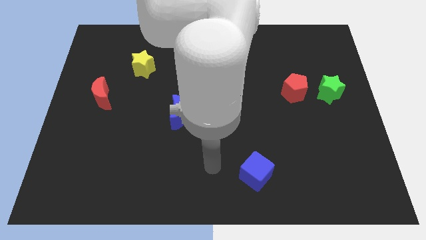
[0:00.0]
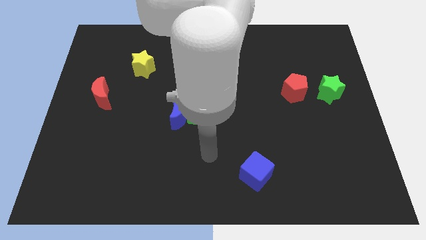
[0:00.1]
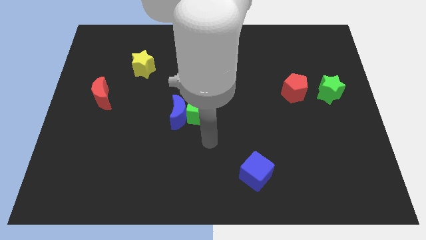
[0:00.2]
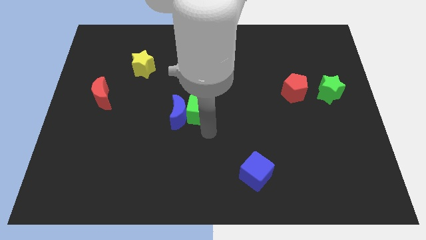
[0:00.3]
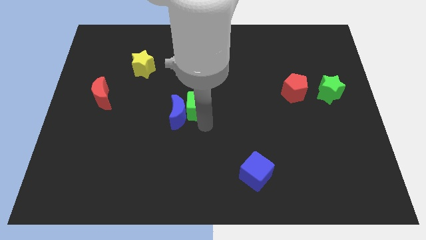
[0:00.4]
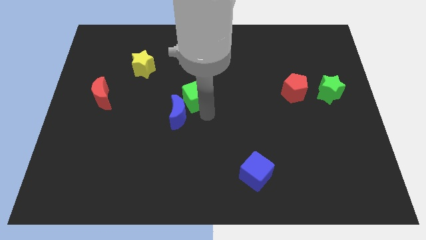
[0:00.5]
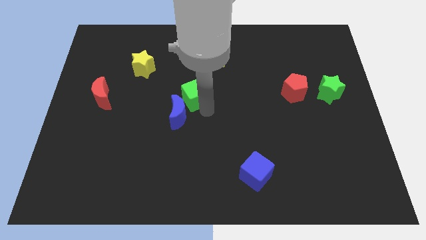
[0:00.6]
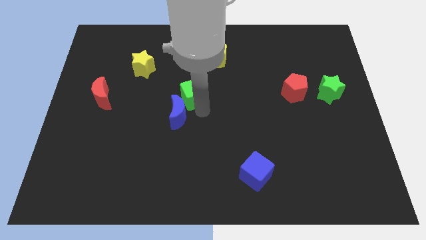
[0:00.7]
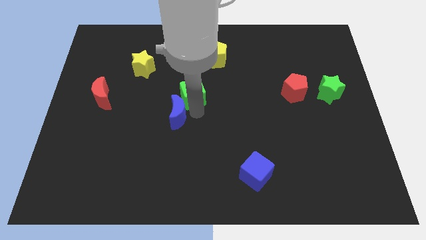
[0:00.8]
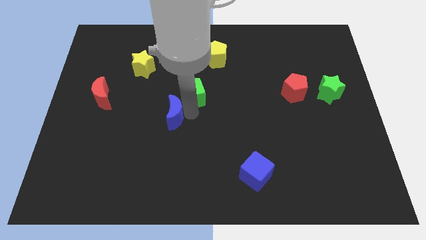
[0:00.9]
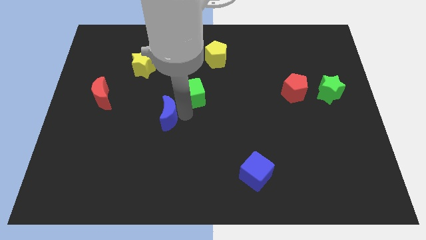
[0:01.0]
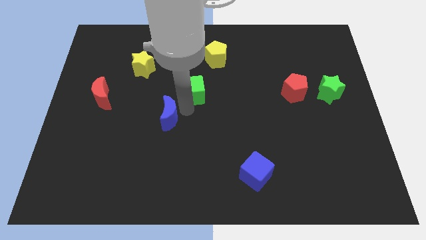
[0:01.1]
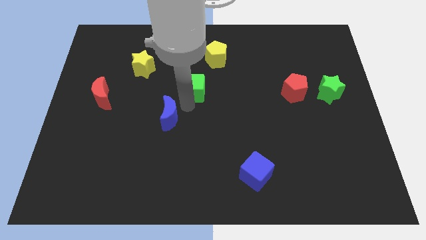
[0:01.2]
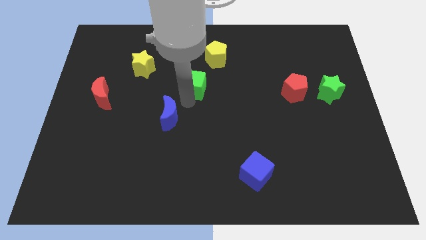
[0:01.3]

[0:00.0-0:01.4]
move the blue moon away from the green cube

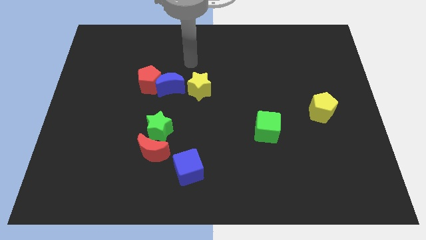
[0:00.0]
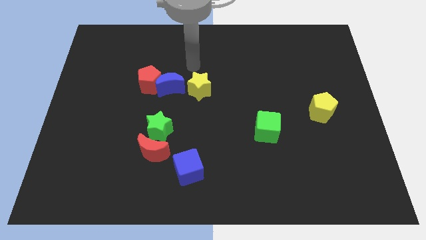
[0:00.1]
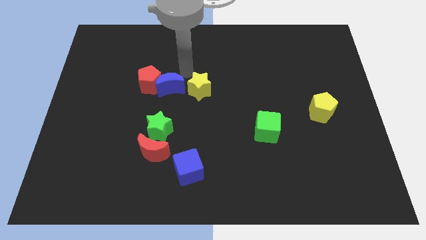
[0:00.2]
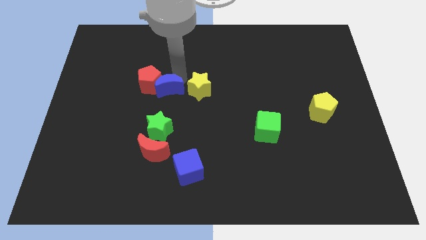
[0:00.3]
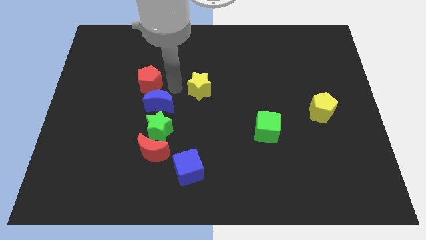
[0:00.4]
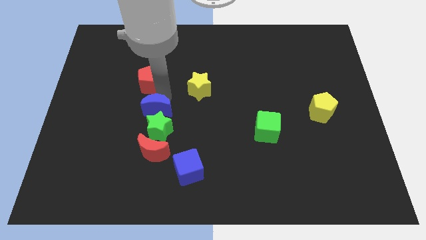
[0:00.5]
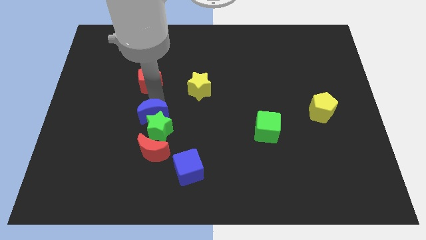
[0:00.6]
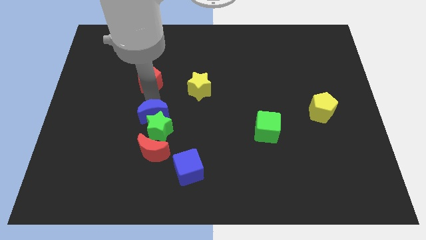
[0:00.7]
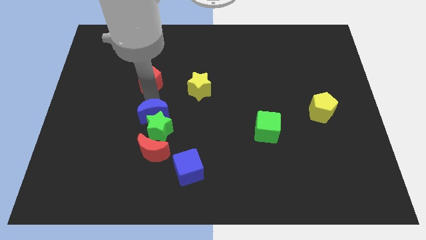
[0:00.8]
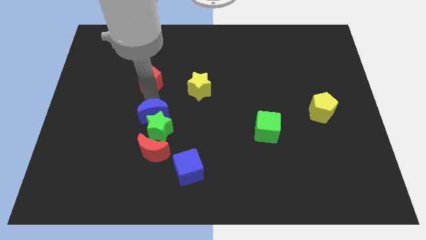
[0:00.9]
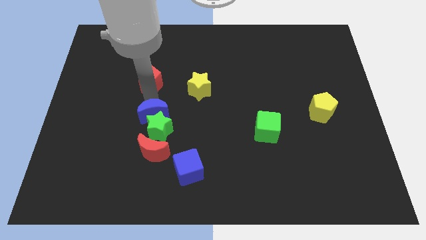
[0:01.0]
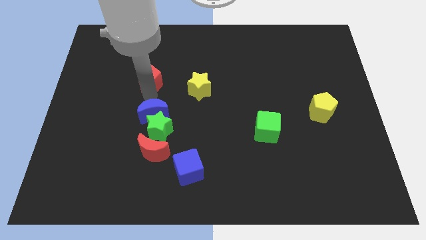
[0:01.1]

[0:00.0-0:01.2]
move the red pentagon away from the blue moon

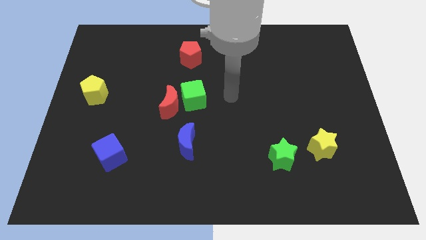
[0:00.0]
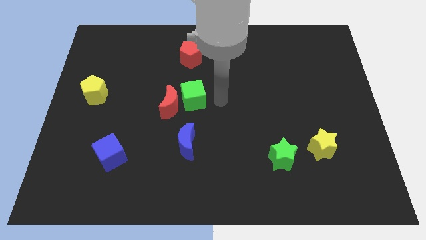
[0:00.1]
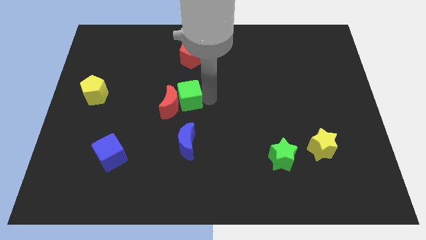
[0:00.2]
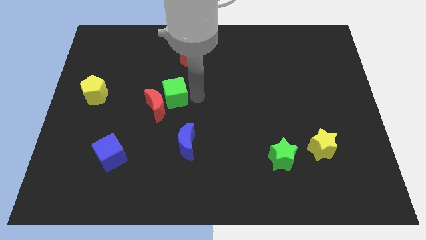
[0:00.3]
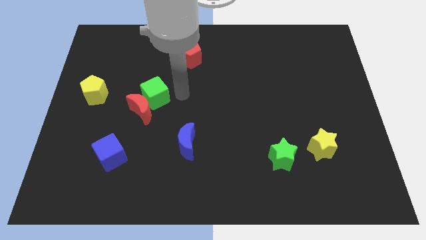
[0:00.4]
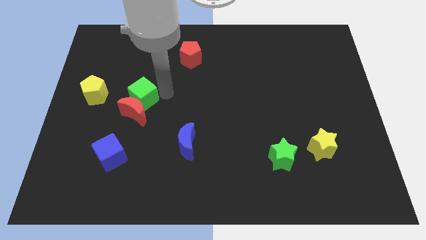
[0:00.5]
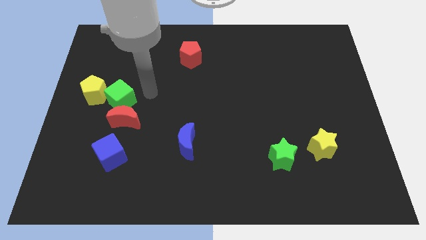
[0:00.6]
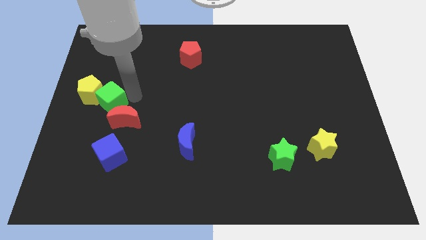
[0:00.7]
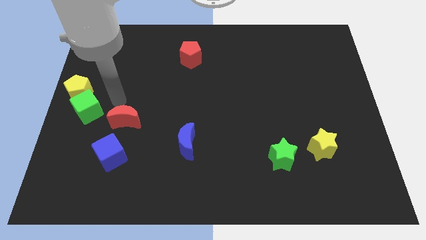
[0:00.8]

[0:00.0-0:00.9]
move the red moon away from the green cube

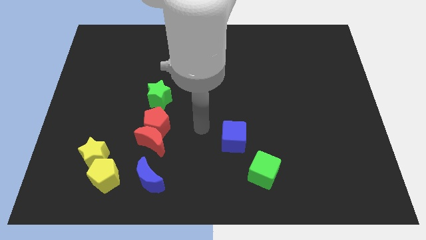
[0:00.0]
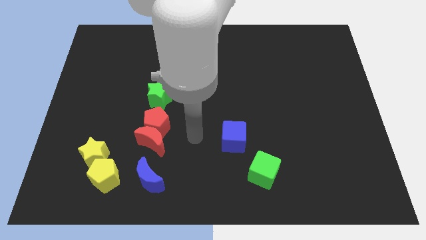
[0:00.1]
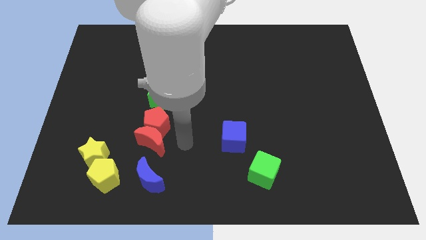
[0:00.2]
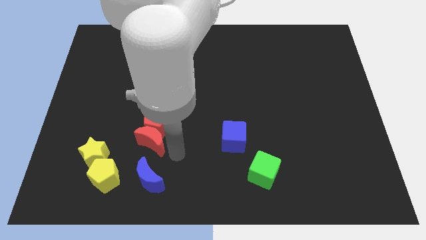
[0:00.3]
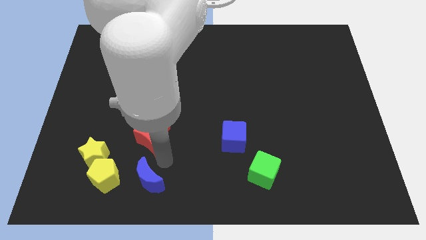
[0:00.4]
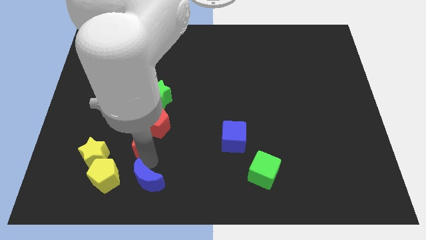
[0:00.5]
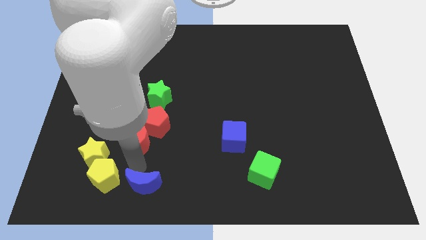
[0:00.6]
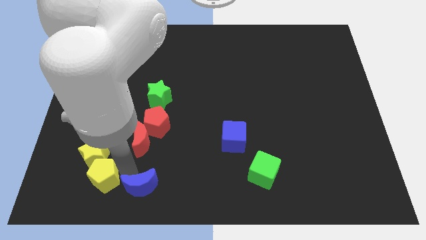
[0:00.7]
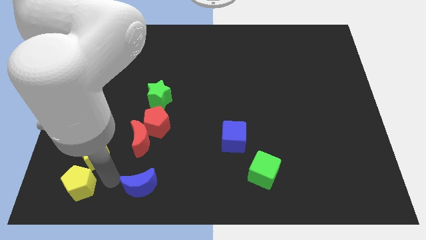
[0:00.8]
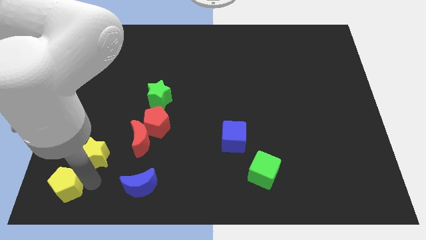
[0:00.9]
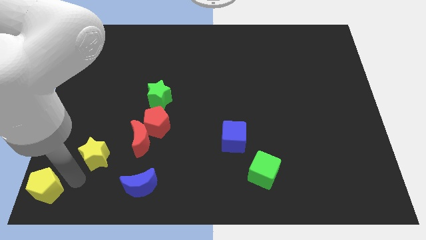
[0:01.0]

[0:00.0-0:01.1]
pull the yellow star apart from the yellow pentagon

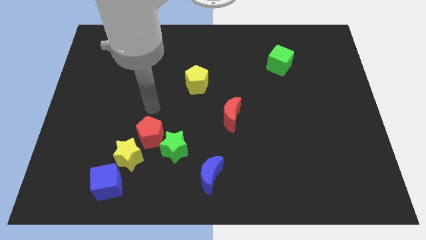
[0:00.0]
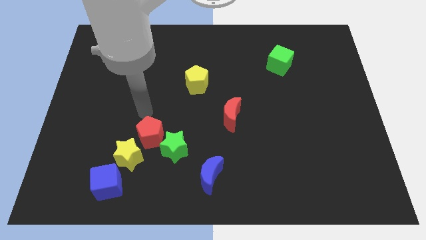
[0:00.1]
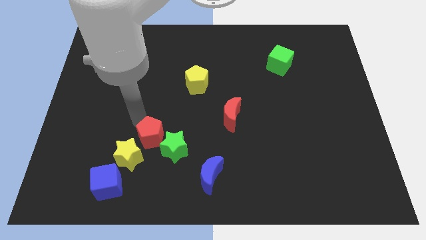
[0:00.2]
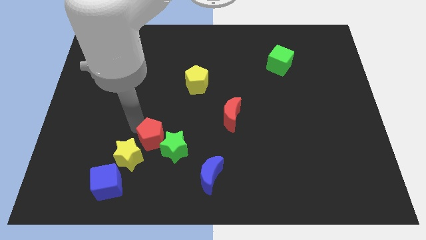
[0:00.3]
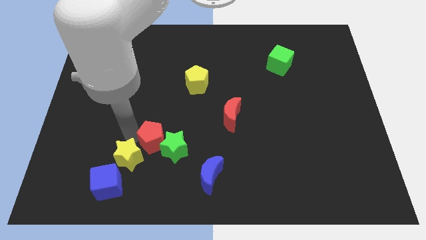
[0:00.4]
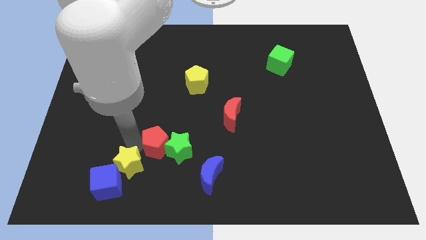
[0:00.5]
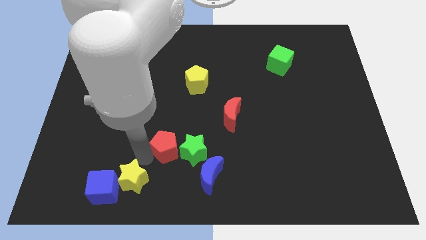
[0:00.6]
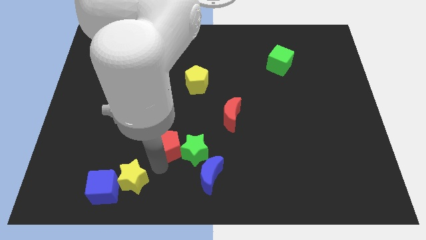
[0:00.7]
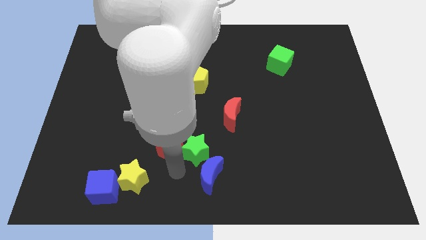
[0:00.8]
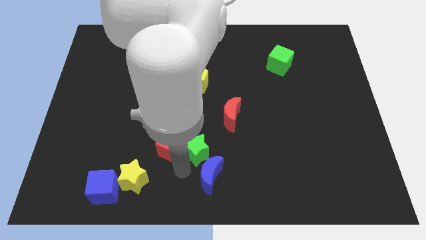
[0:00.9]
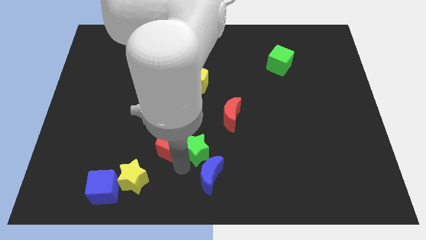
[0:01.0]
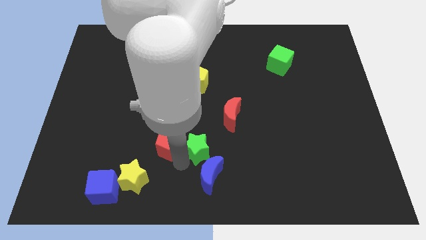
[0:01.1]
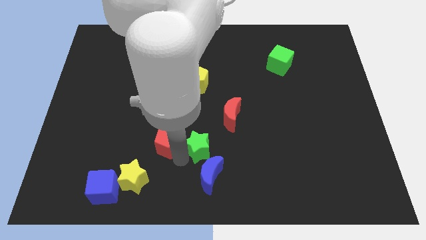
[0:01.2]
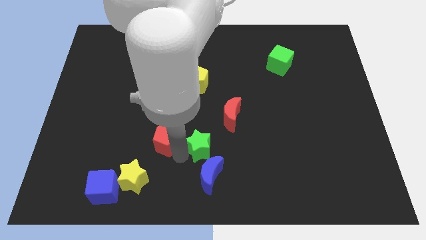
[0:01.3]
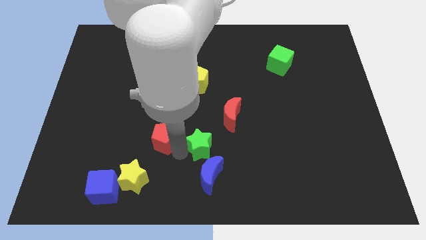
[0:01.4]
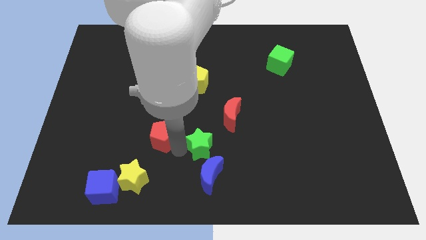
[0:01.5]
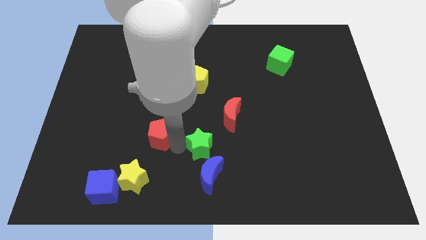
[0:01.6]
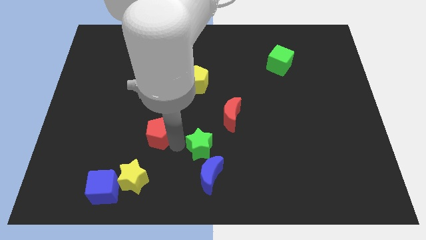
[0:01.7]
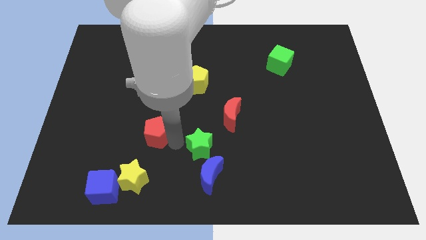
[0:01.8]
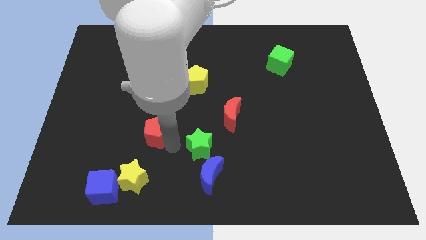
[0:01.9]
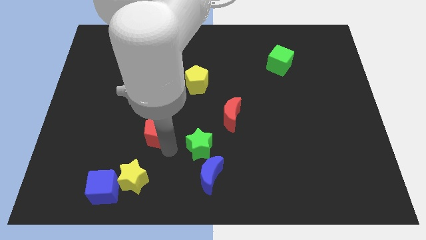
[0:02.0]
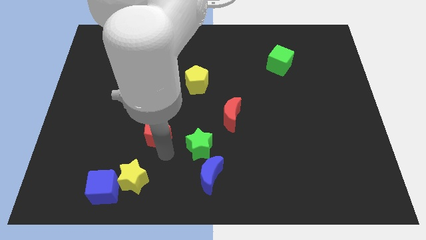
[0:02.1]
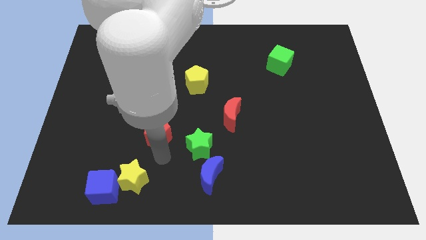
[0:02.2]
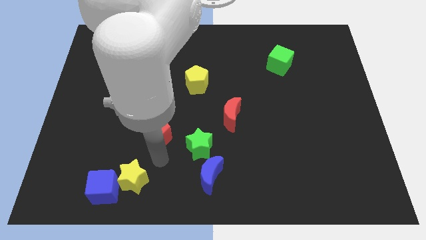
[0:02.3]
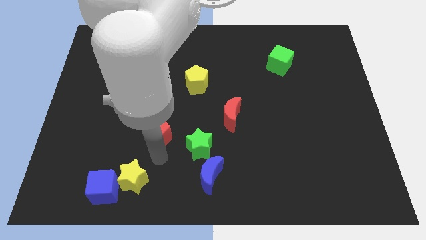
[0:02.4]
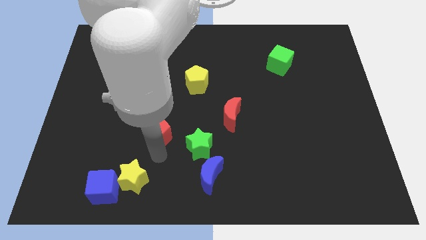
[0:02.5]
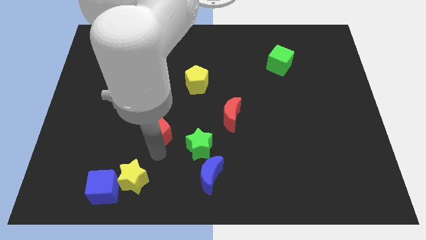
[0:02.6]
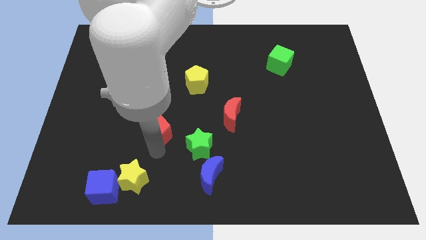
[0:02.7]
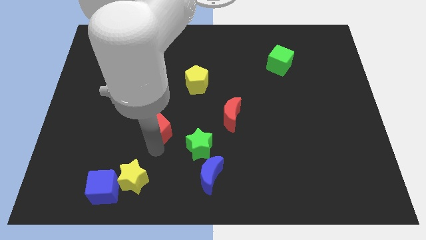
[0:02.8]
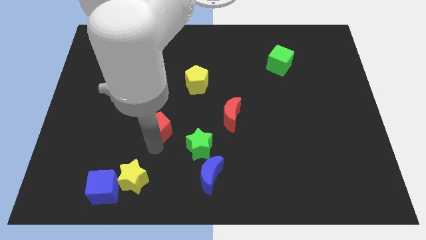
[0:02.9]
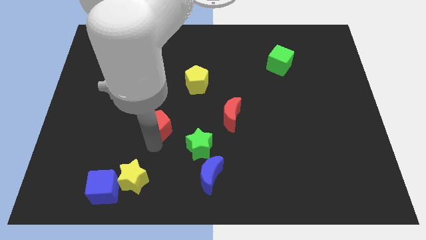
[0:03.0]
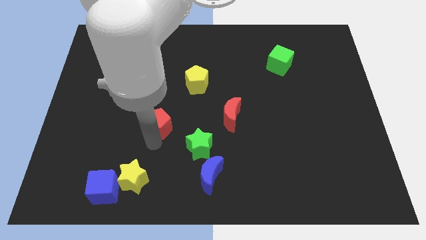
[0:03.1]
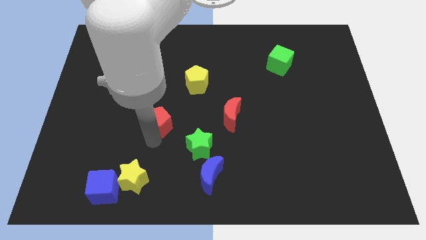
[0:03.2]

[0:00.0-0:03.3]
move the red pentagon away from the green star and yellow star

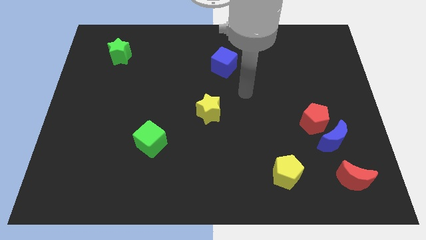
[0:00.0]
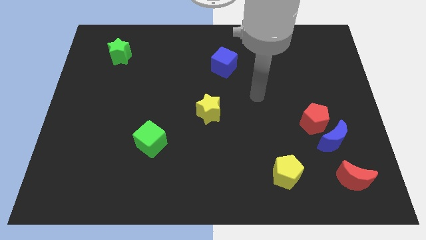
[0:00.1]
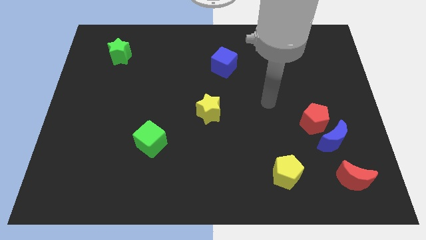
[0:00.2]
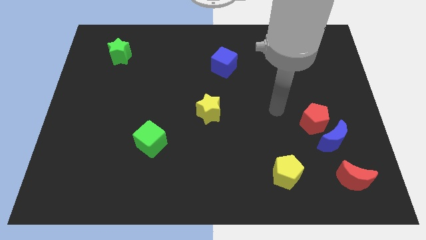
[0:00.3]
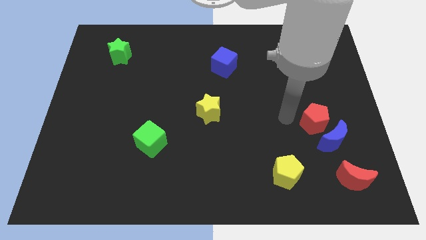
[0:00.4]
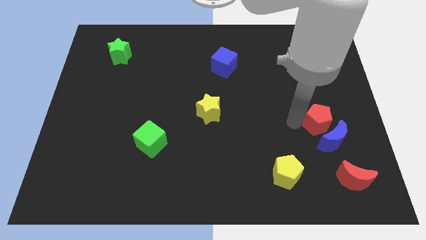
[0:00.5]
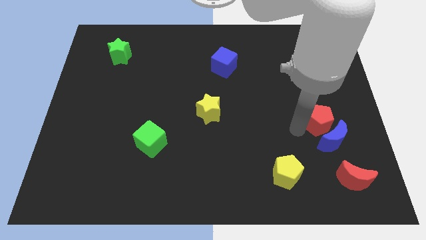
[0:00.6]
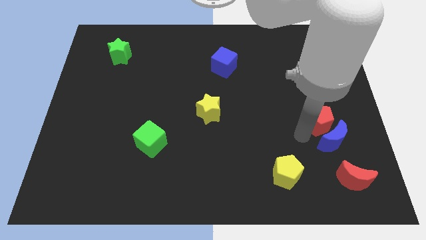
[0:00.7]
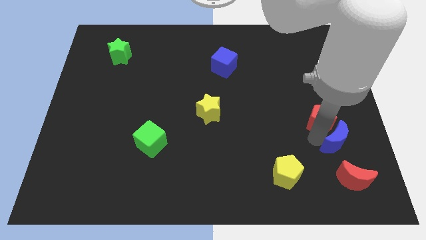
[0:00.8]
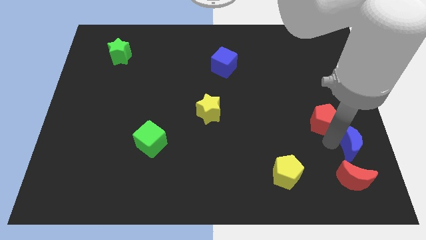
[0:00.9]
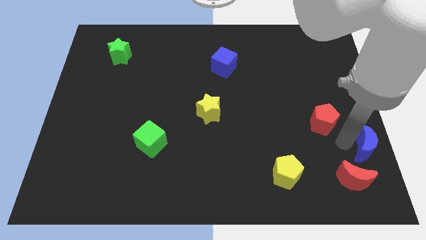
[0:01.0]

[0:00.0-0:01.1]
pull the red pentagon apart from the blue moon

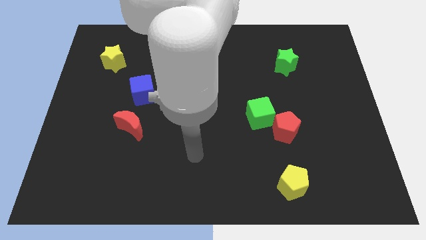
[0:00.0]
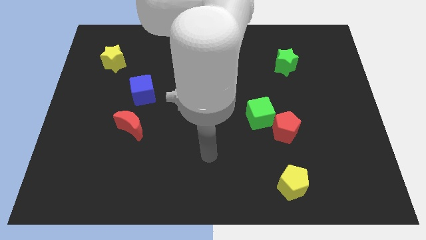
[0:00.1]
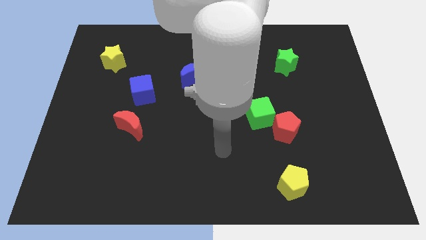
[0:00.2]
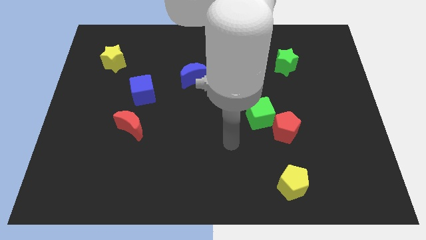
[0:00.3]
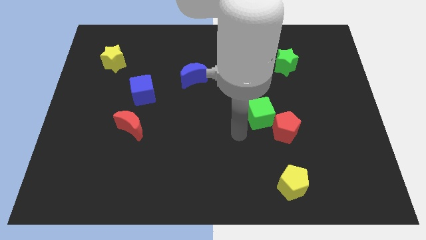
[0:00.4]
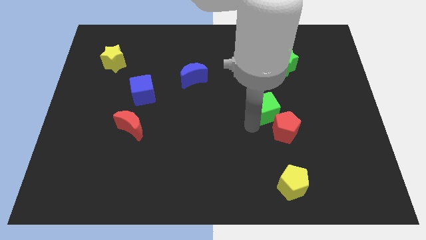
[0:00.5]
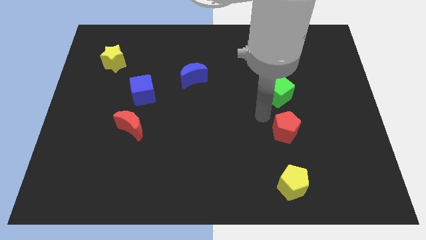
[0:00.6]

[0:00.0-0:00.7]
separate the red pentagon from the green cube
